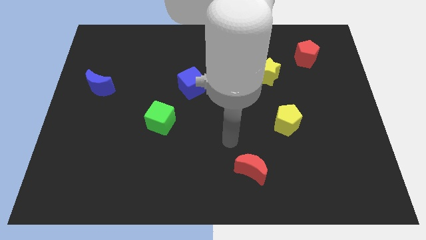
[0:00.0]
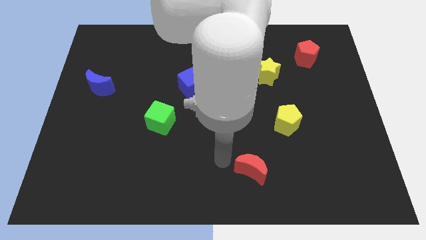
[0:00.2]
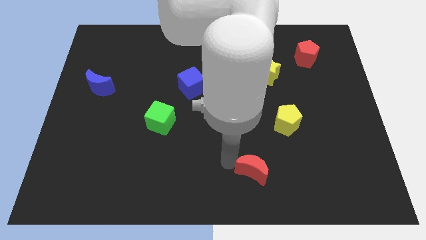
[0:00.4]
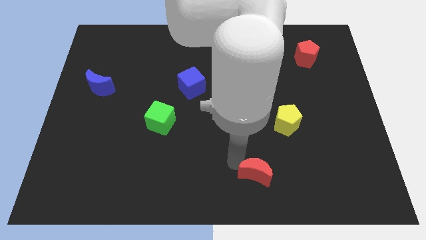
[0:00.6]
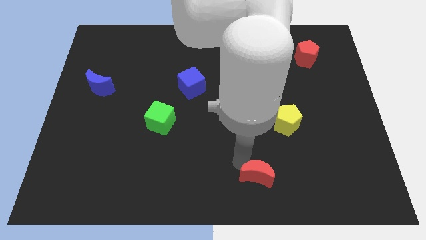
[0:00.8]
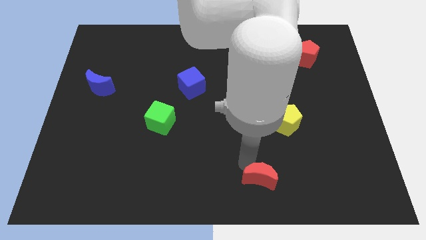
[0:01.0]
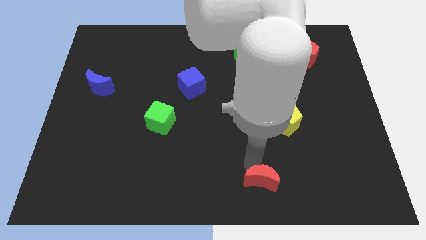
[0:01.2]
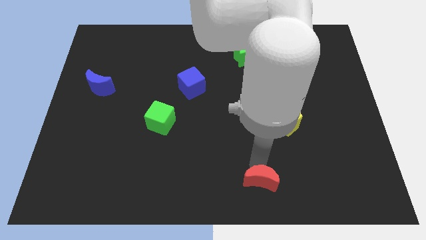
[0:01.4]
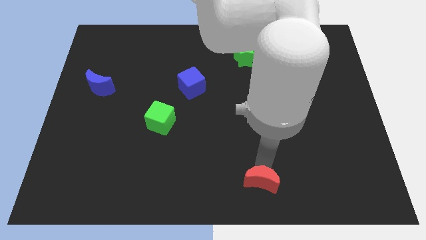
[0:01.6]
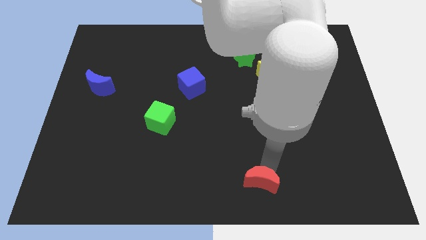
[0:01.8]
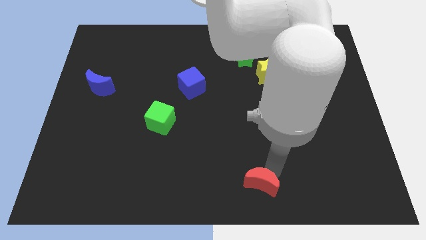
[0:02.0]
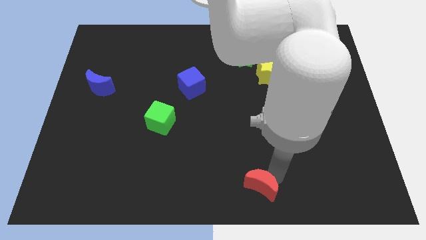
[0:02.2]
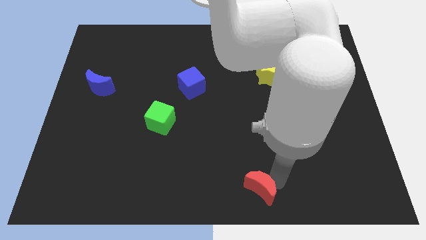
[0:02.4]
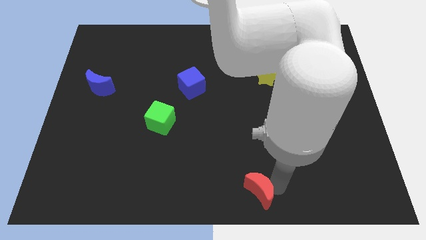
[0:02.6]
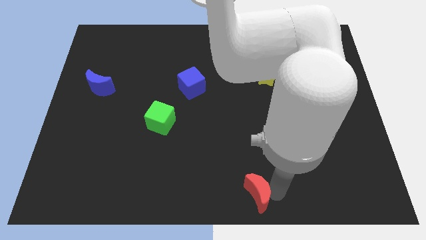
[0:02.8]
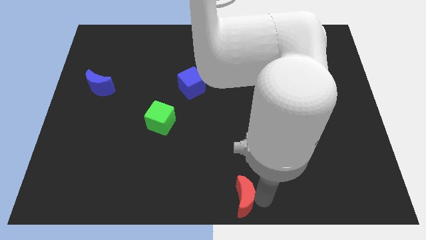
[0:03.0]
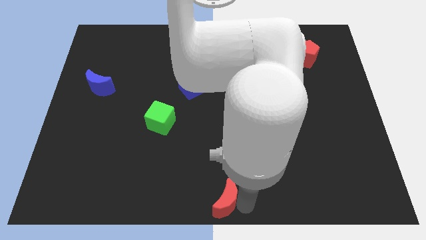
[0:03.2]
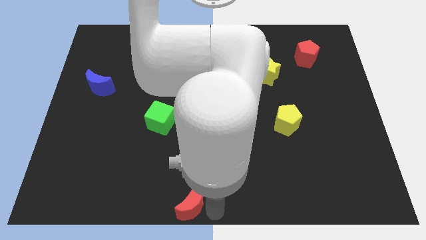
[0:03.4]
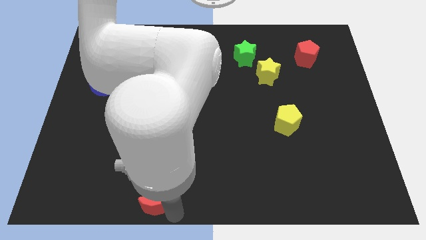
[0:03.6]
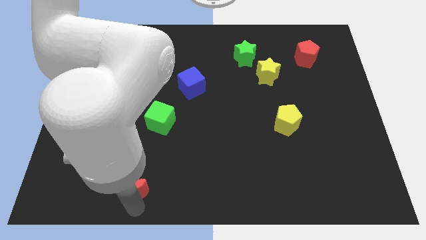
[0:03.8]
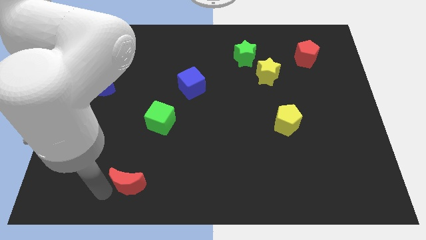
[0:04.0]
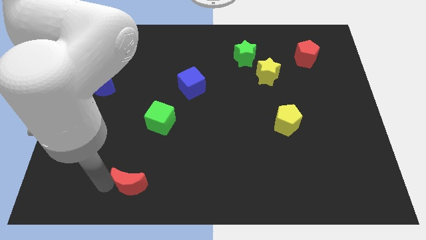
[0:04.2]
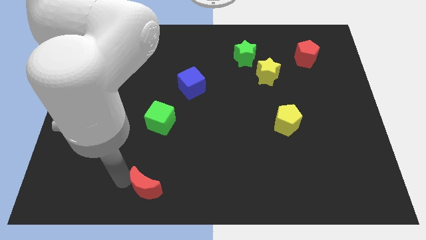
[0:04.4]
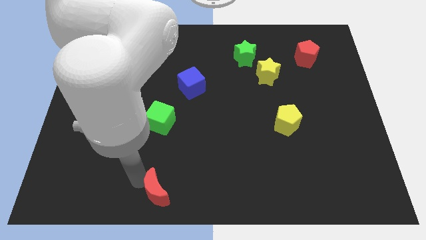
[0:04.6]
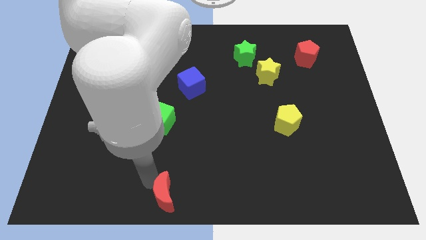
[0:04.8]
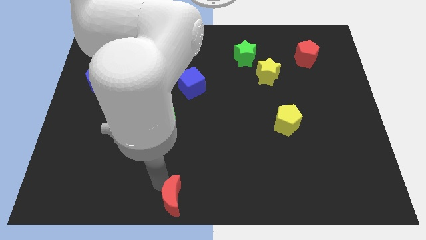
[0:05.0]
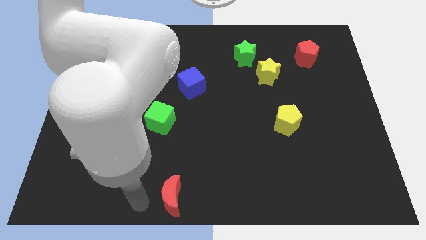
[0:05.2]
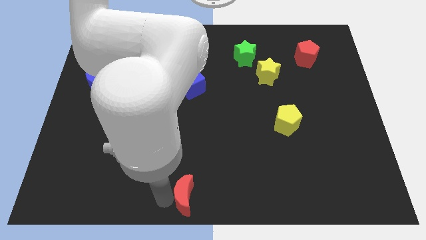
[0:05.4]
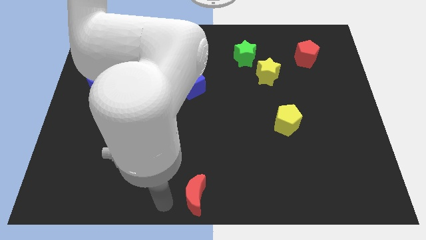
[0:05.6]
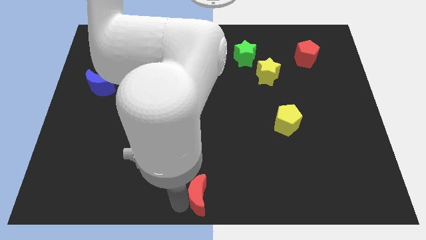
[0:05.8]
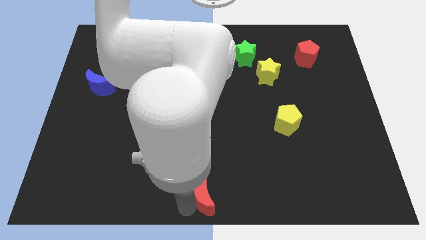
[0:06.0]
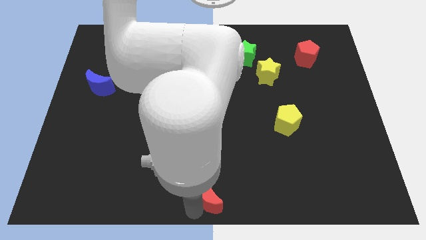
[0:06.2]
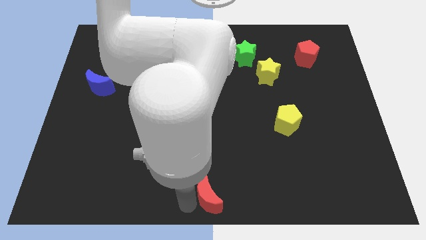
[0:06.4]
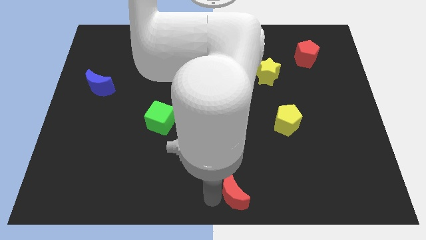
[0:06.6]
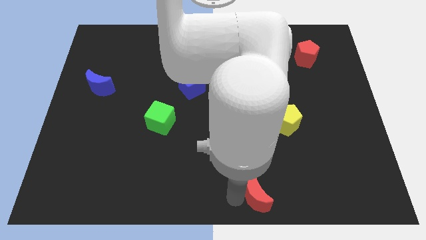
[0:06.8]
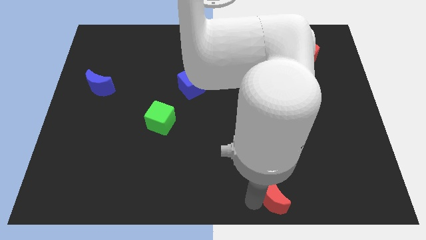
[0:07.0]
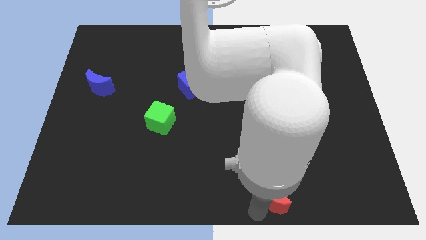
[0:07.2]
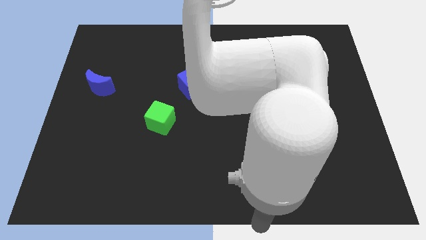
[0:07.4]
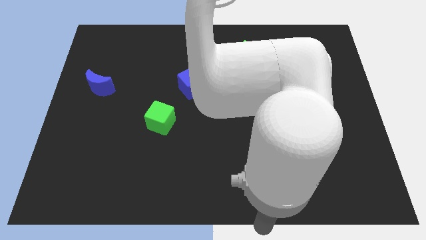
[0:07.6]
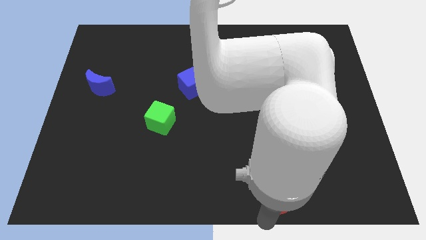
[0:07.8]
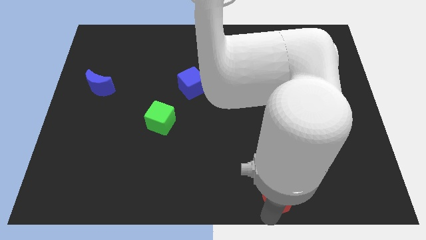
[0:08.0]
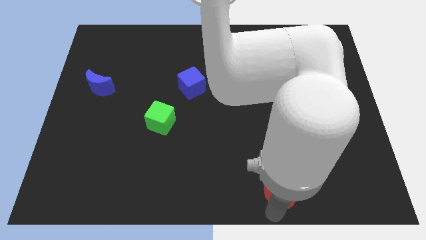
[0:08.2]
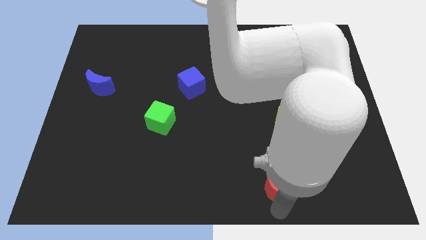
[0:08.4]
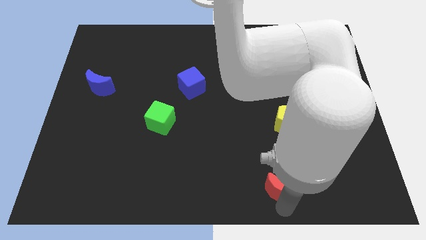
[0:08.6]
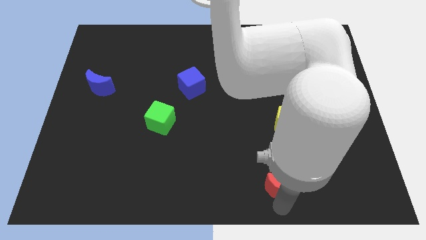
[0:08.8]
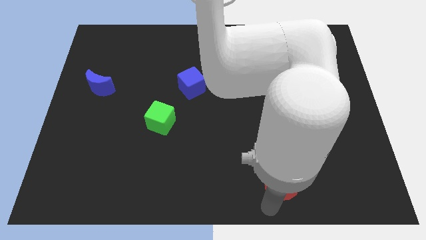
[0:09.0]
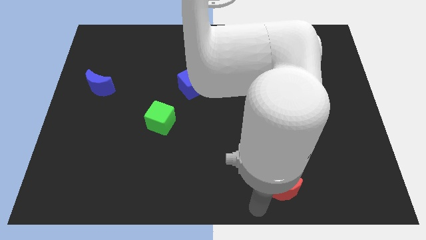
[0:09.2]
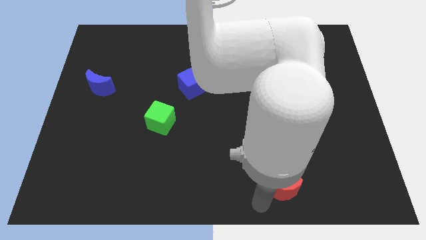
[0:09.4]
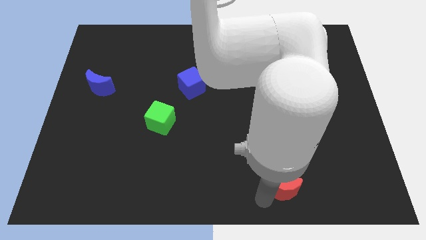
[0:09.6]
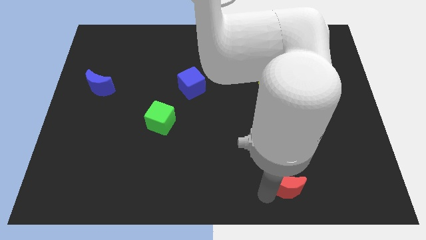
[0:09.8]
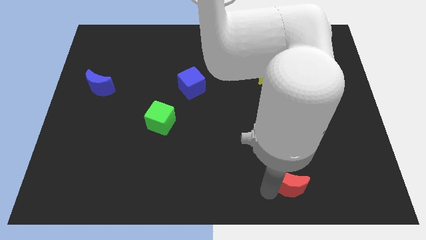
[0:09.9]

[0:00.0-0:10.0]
push the red moon somewhat right

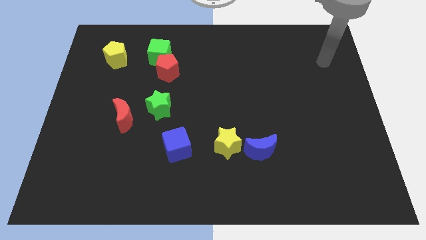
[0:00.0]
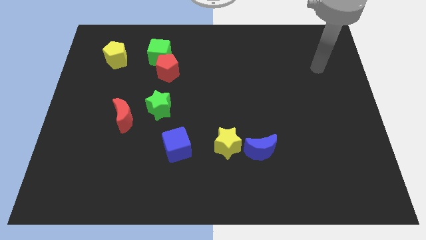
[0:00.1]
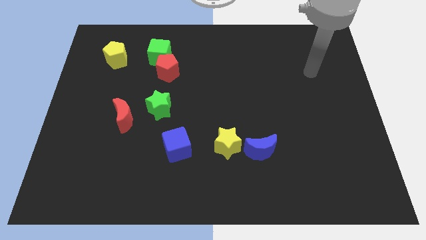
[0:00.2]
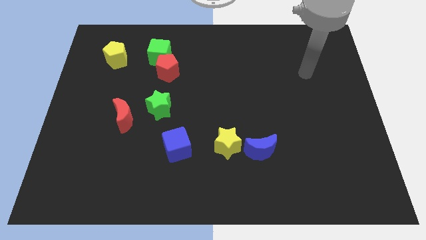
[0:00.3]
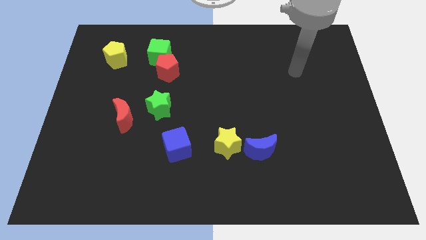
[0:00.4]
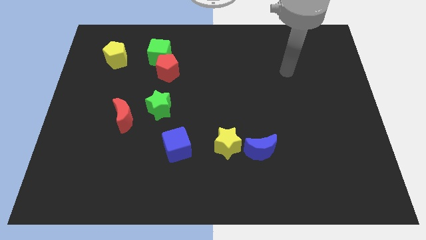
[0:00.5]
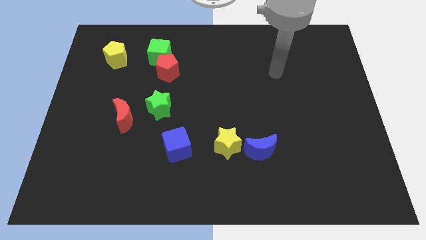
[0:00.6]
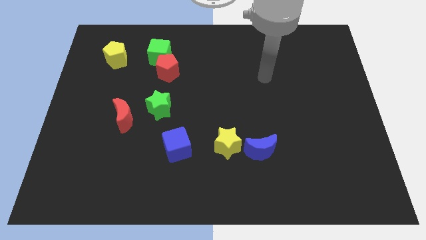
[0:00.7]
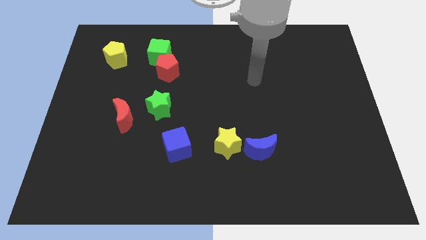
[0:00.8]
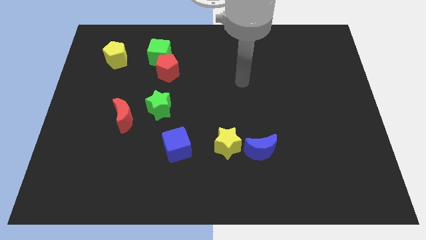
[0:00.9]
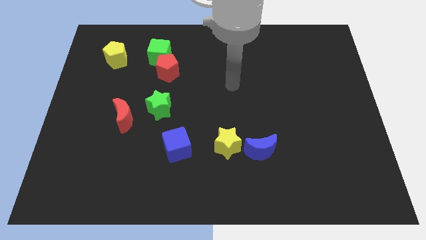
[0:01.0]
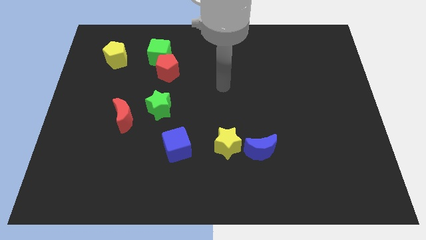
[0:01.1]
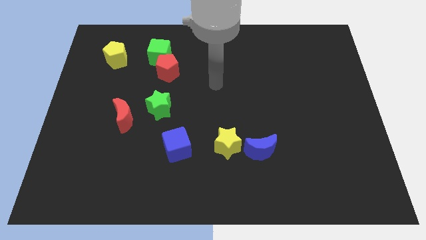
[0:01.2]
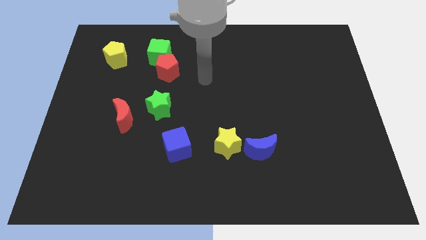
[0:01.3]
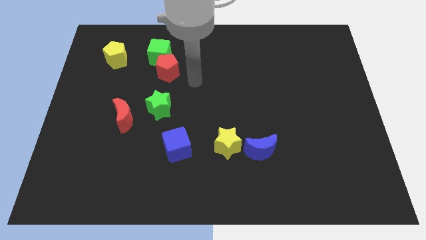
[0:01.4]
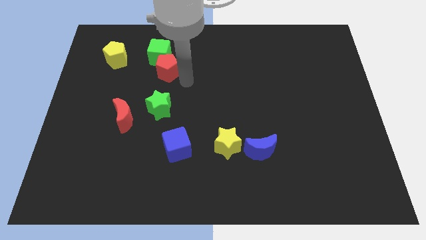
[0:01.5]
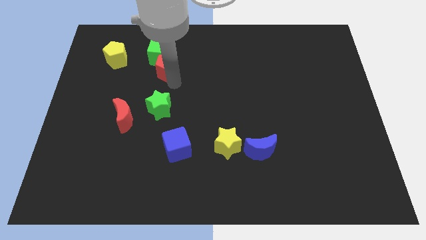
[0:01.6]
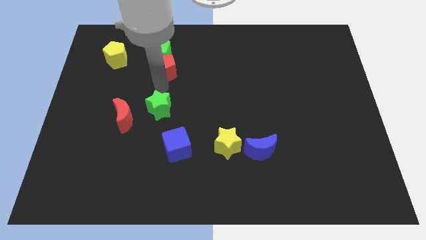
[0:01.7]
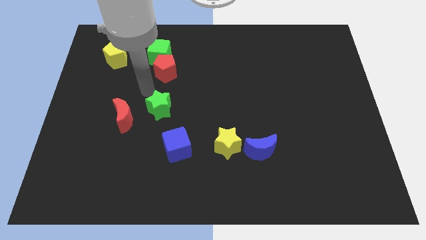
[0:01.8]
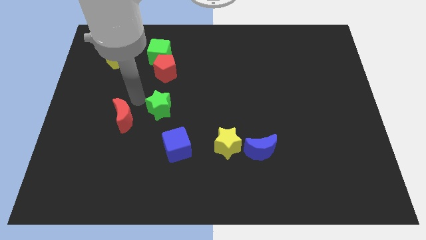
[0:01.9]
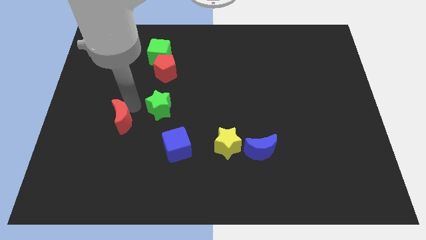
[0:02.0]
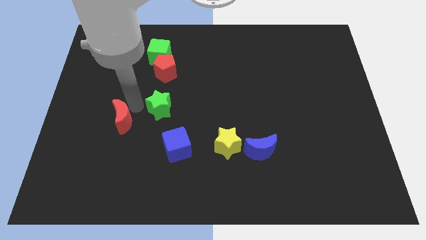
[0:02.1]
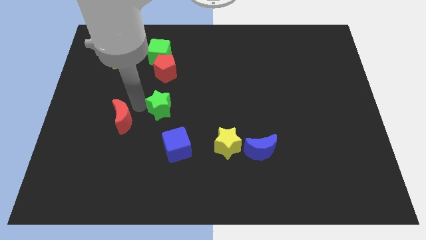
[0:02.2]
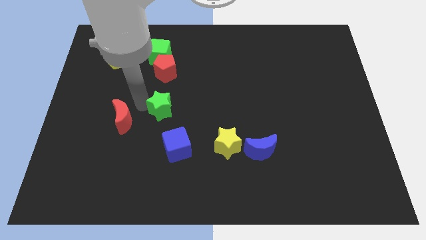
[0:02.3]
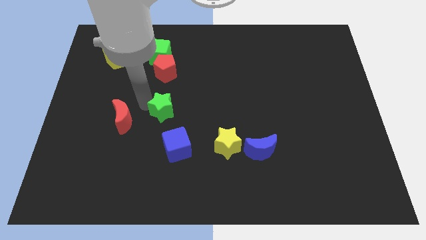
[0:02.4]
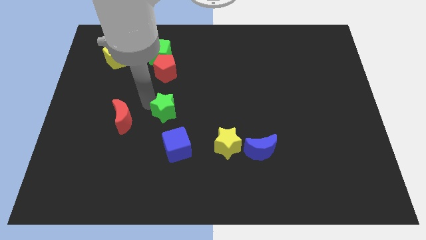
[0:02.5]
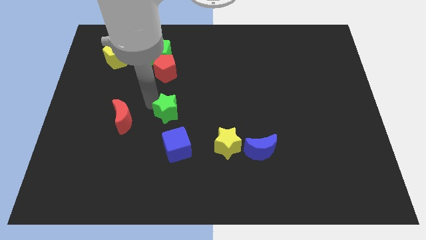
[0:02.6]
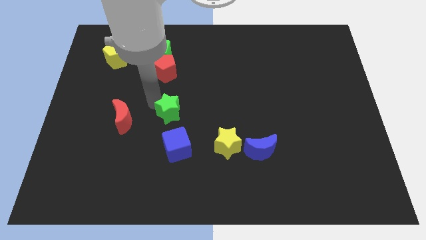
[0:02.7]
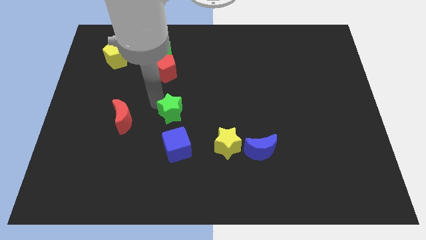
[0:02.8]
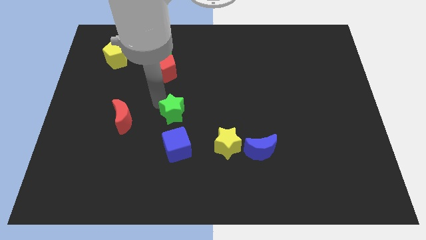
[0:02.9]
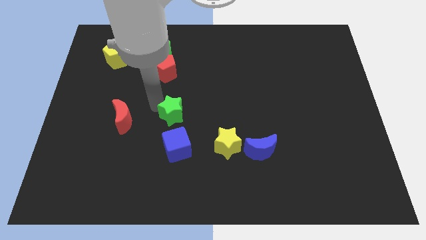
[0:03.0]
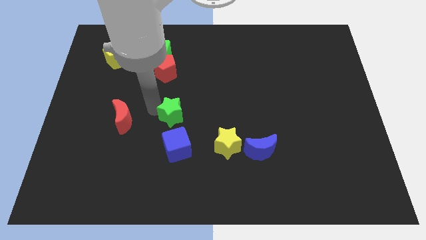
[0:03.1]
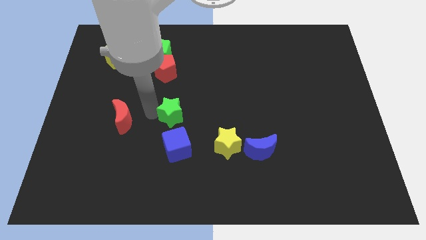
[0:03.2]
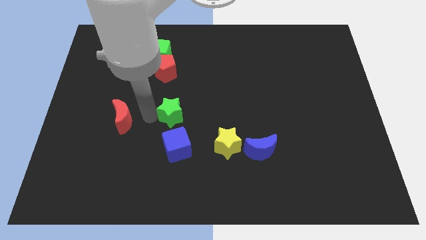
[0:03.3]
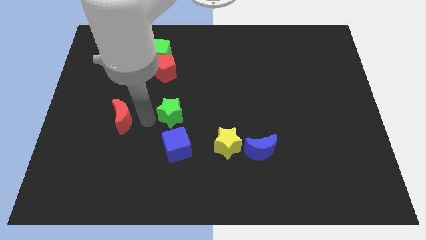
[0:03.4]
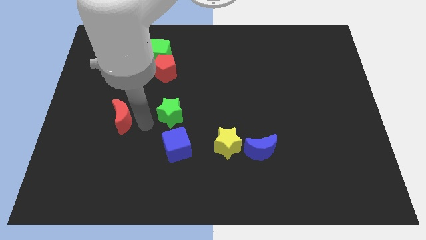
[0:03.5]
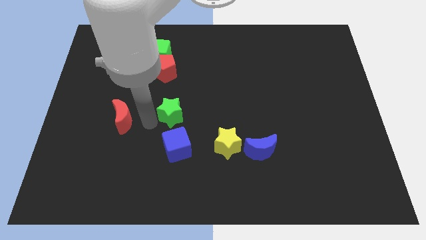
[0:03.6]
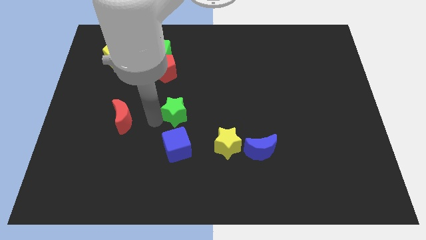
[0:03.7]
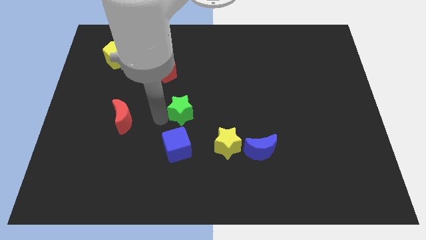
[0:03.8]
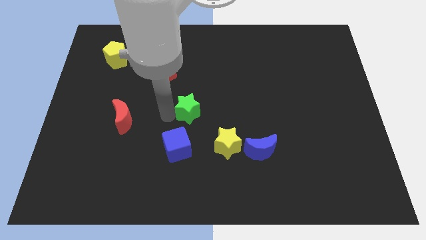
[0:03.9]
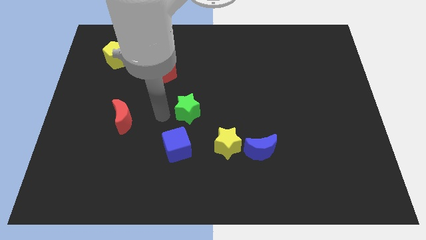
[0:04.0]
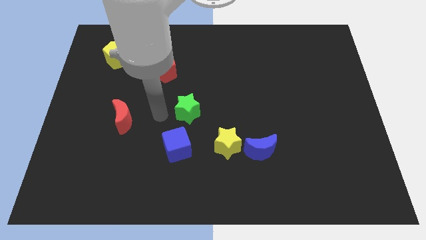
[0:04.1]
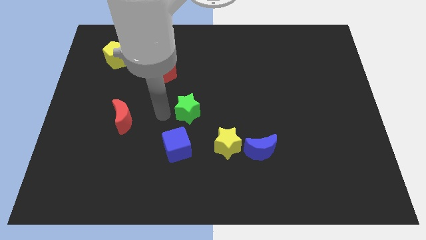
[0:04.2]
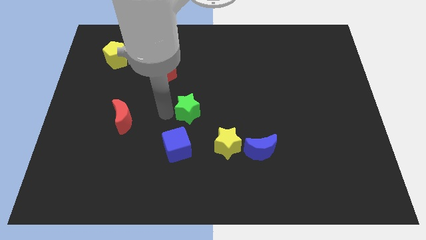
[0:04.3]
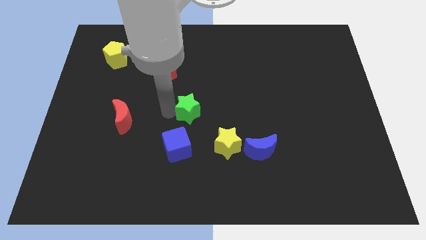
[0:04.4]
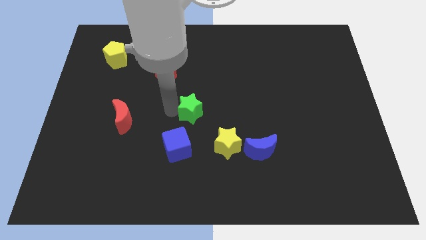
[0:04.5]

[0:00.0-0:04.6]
slide the green star to the right a little bit
